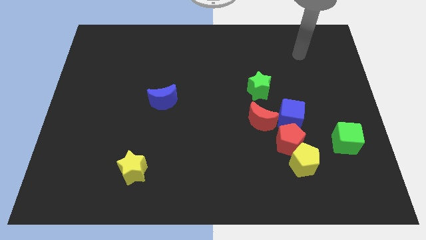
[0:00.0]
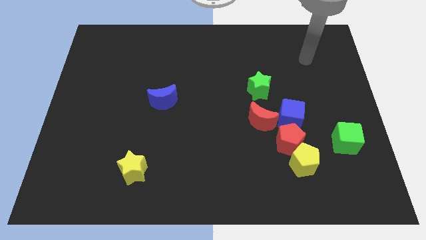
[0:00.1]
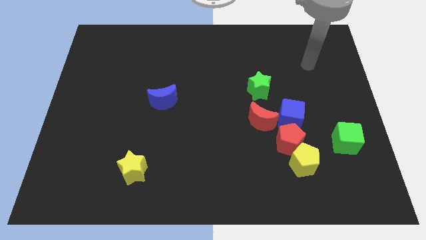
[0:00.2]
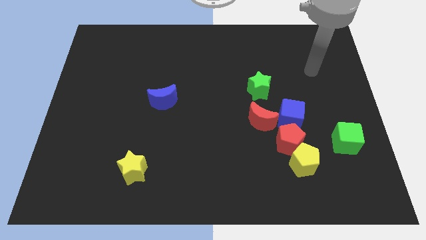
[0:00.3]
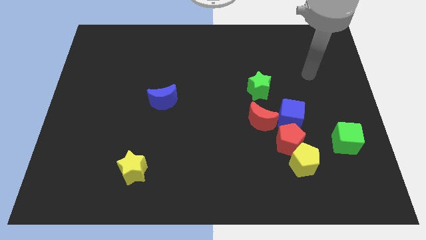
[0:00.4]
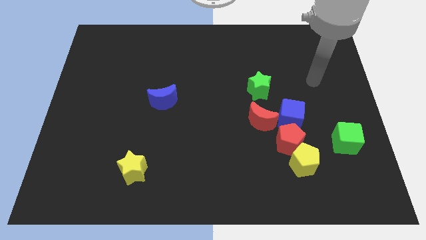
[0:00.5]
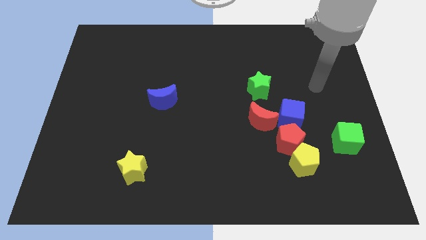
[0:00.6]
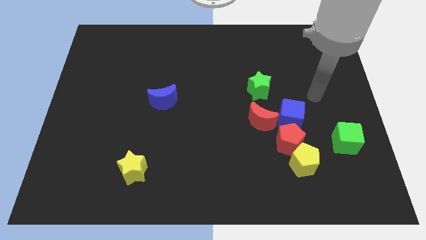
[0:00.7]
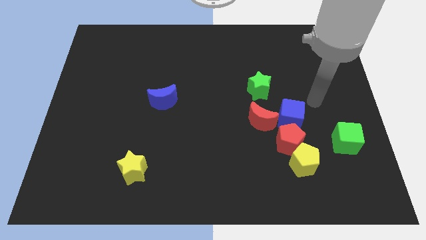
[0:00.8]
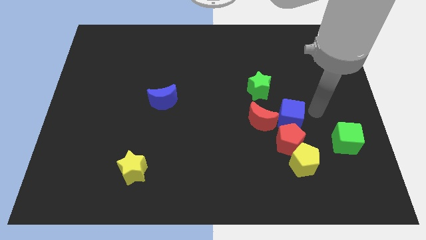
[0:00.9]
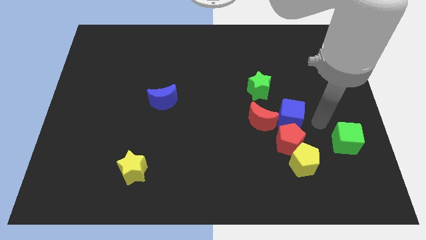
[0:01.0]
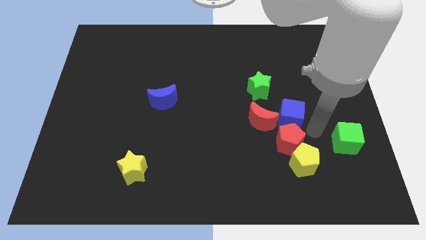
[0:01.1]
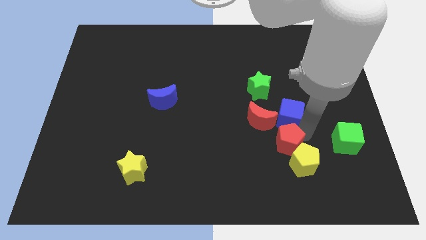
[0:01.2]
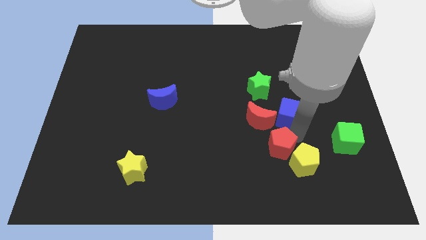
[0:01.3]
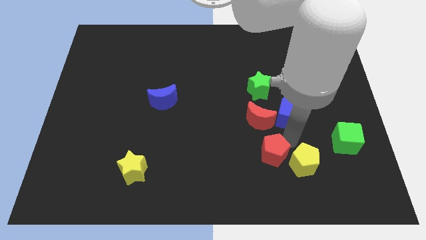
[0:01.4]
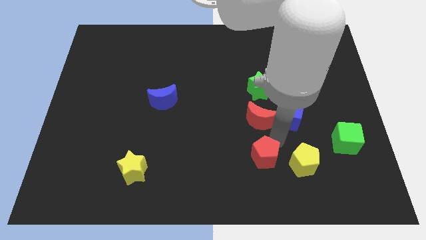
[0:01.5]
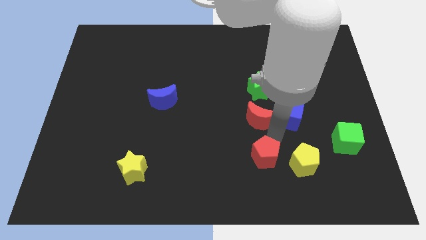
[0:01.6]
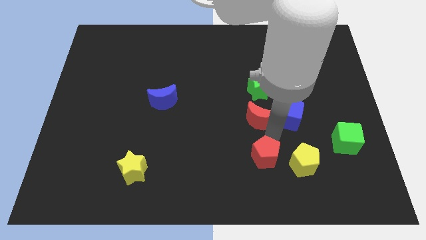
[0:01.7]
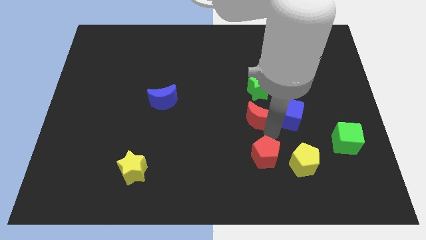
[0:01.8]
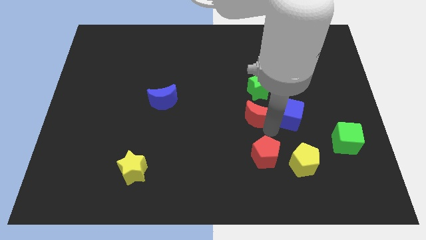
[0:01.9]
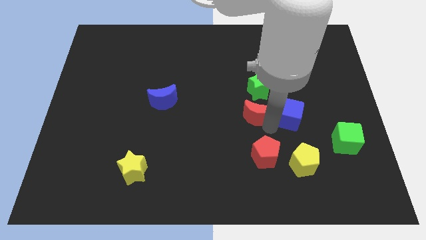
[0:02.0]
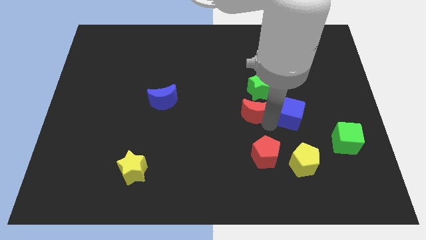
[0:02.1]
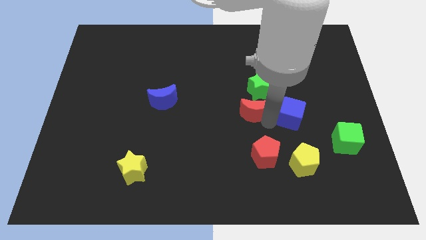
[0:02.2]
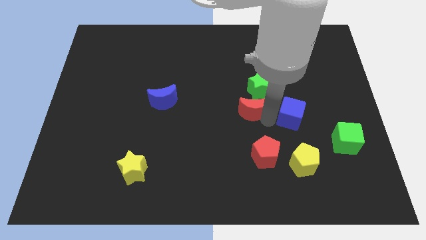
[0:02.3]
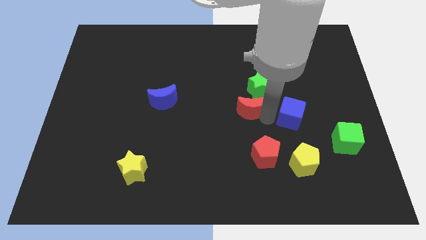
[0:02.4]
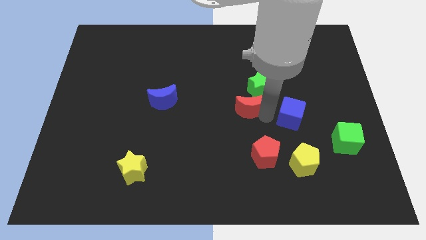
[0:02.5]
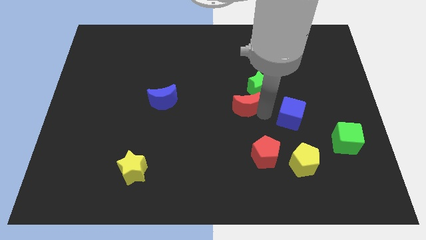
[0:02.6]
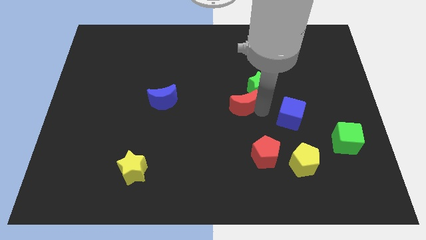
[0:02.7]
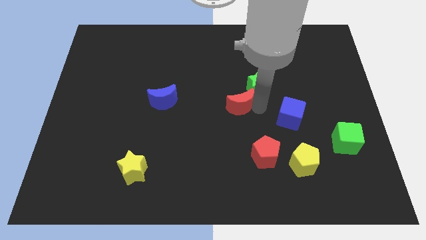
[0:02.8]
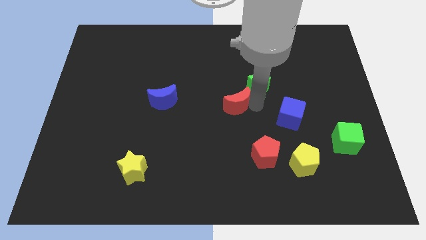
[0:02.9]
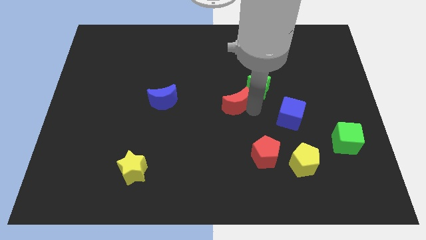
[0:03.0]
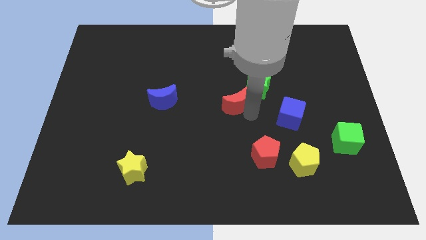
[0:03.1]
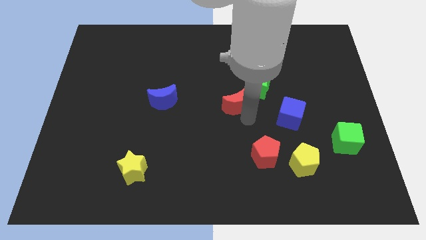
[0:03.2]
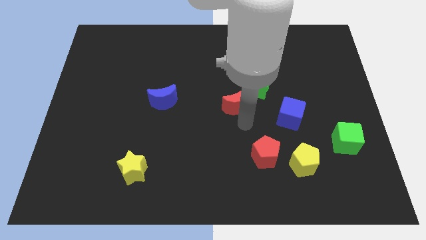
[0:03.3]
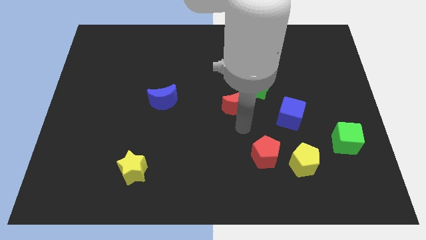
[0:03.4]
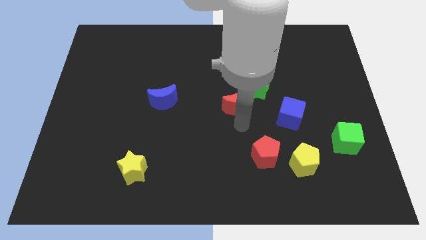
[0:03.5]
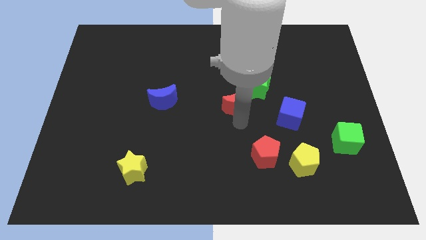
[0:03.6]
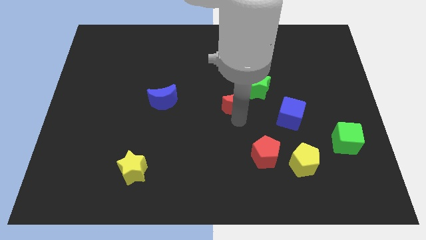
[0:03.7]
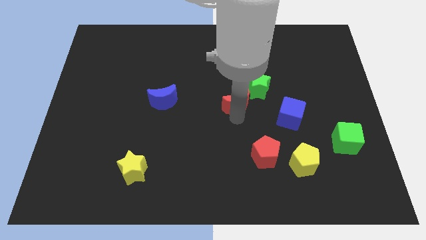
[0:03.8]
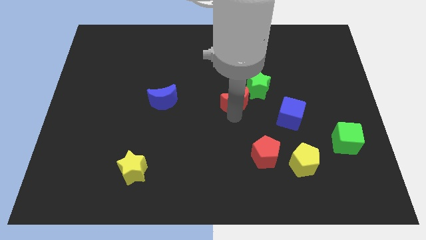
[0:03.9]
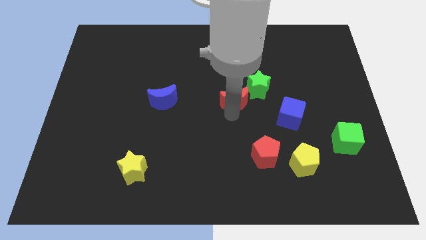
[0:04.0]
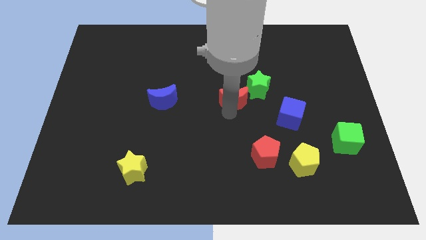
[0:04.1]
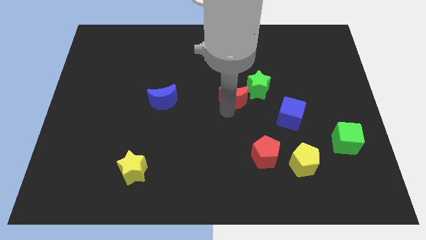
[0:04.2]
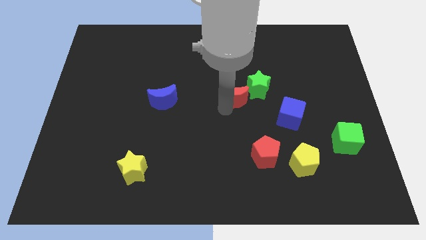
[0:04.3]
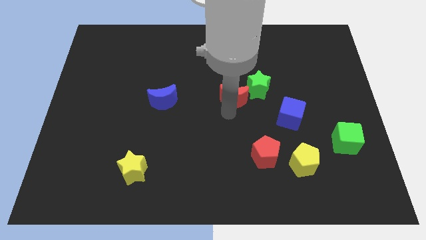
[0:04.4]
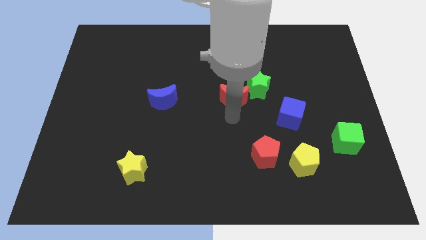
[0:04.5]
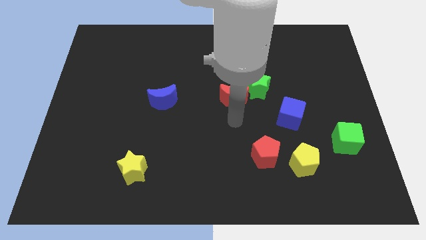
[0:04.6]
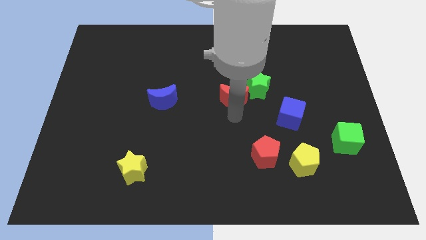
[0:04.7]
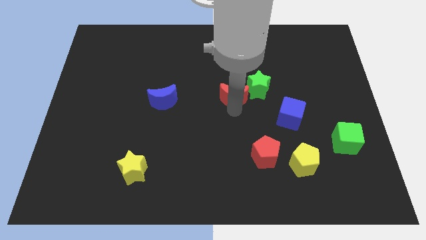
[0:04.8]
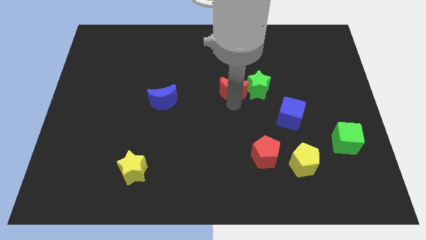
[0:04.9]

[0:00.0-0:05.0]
slightly slide the red moon upwards

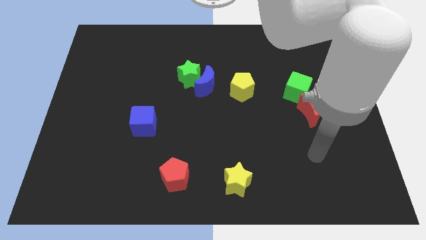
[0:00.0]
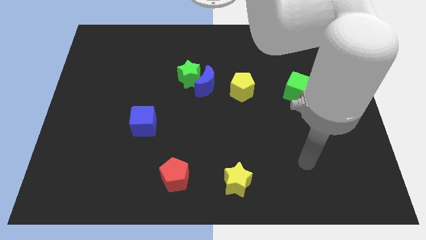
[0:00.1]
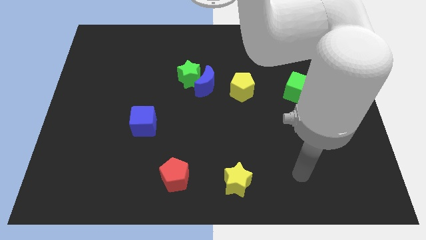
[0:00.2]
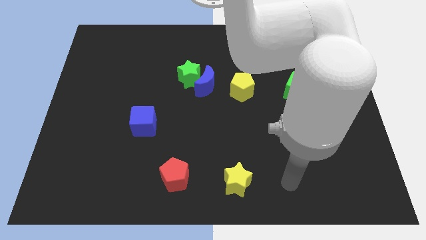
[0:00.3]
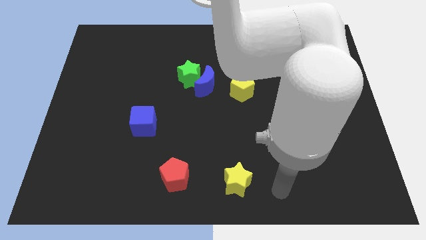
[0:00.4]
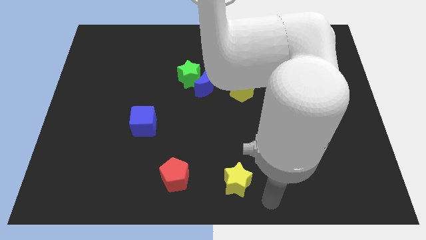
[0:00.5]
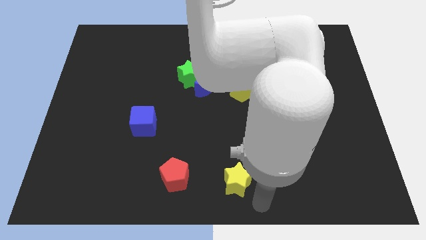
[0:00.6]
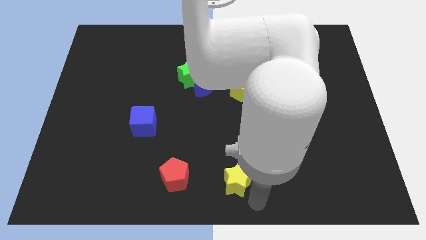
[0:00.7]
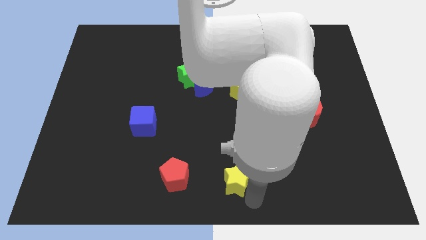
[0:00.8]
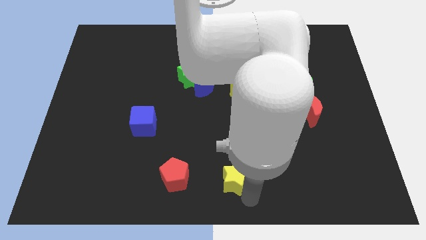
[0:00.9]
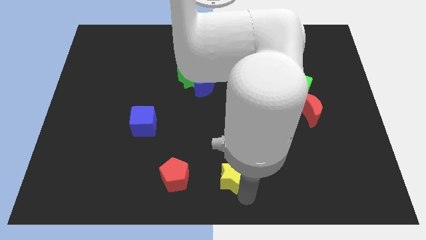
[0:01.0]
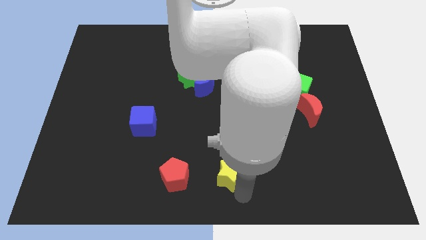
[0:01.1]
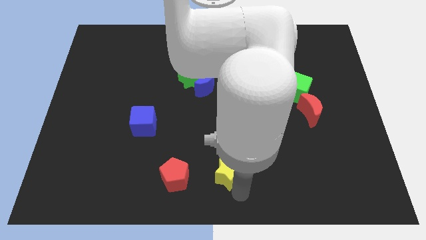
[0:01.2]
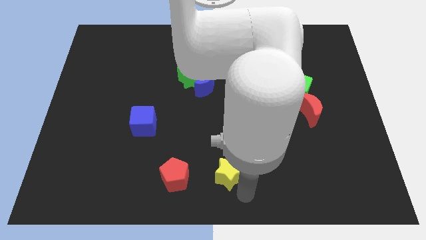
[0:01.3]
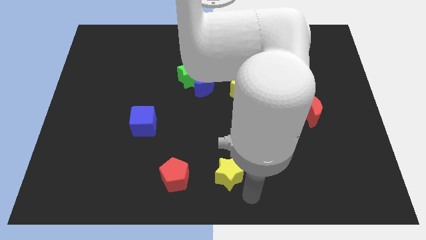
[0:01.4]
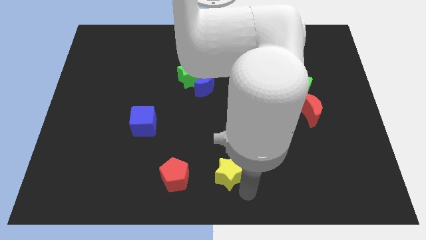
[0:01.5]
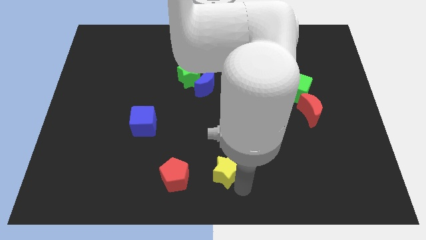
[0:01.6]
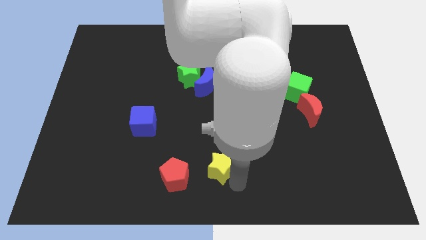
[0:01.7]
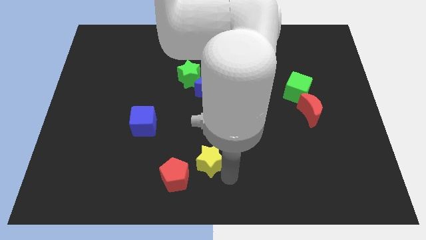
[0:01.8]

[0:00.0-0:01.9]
move the yellow star up and to the left diagonally a little

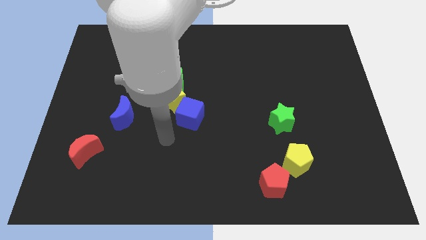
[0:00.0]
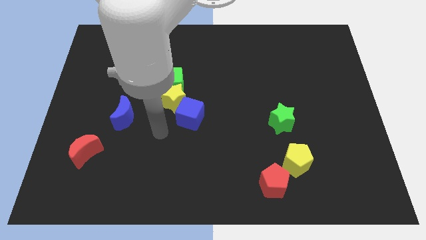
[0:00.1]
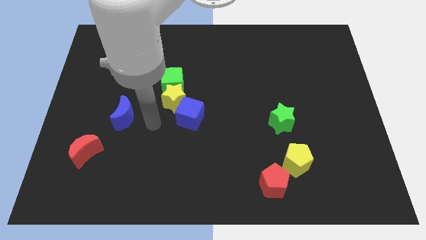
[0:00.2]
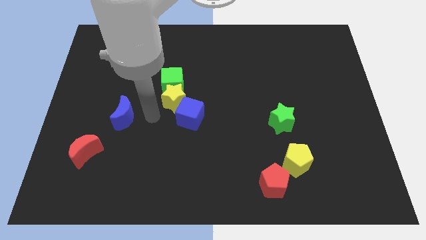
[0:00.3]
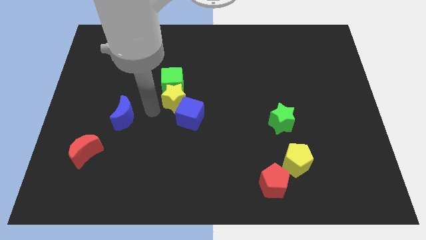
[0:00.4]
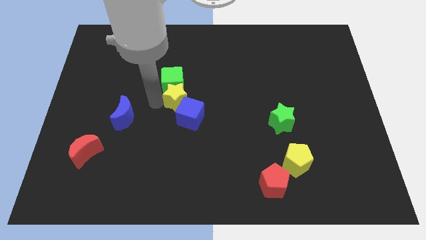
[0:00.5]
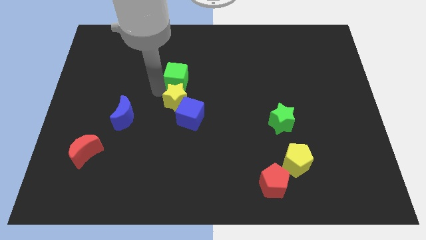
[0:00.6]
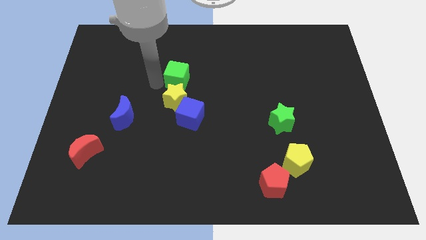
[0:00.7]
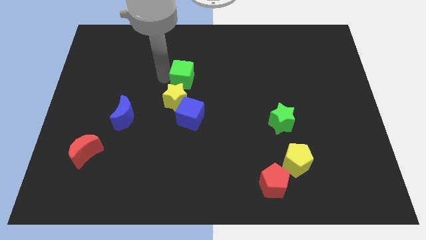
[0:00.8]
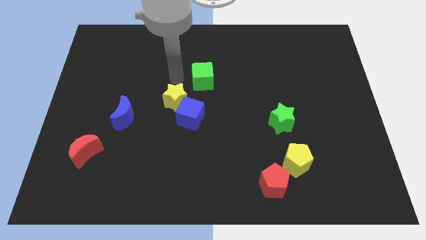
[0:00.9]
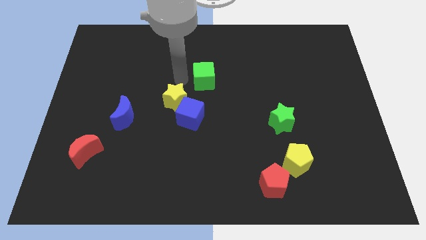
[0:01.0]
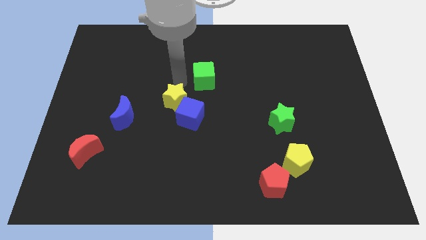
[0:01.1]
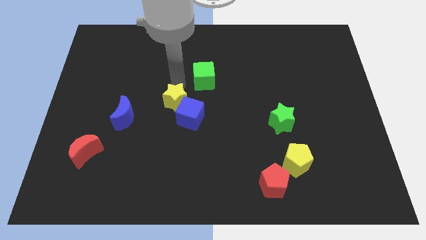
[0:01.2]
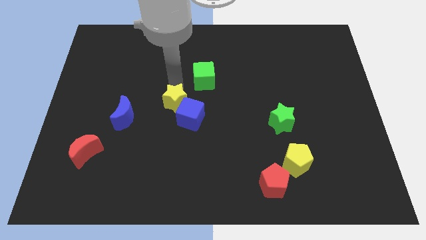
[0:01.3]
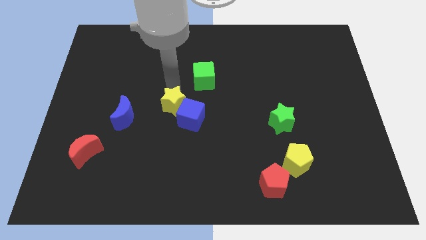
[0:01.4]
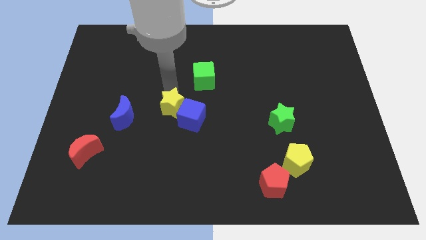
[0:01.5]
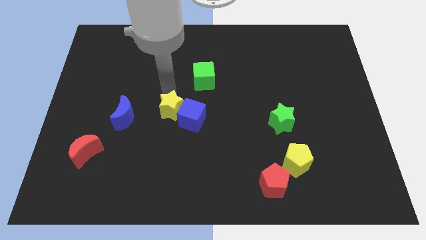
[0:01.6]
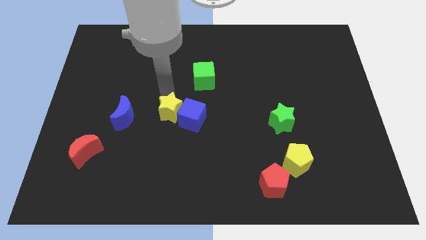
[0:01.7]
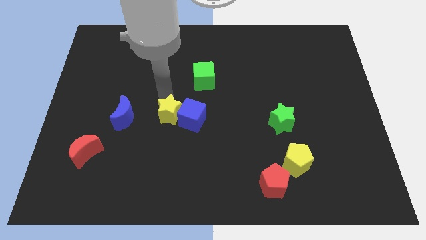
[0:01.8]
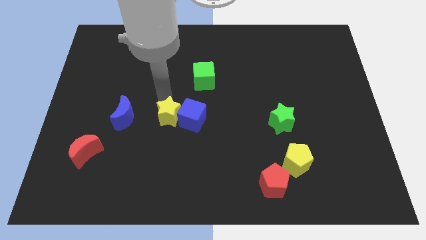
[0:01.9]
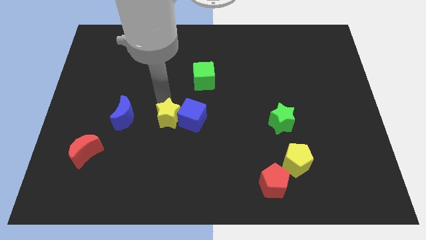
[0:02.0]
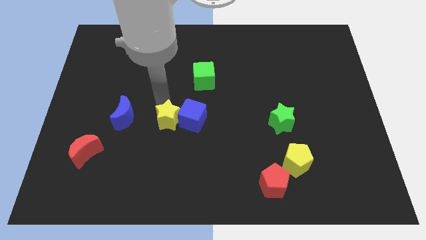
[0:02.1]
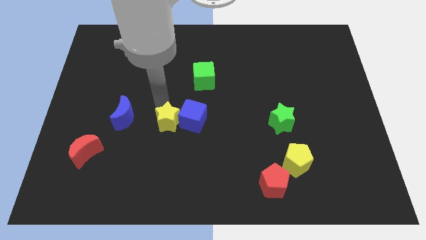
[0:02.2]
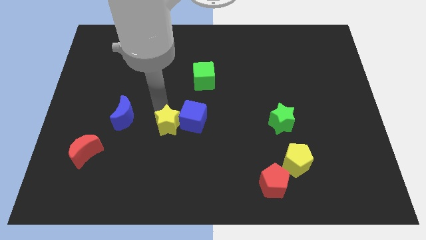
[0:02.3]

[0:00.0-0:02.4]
move the yellow star downwards slightly
